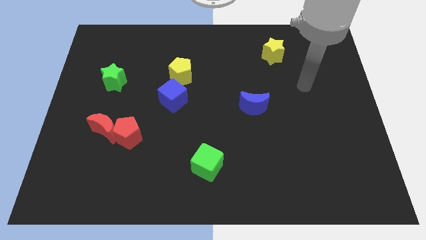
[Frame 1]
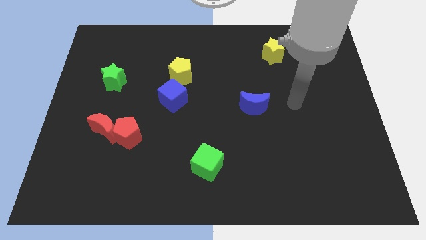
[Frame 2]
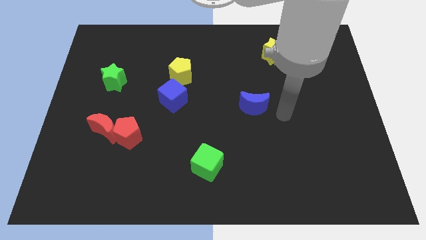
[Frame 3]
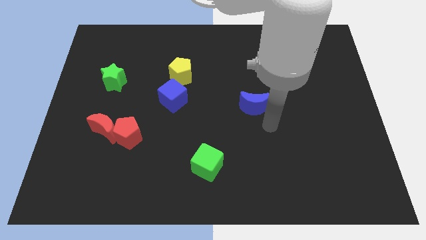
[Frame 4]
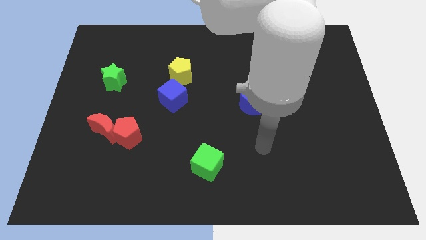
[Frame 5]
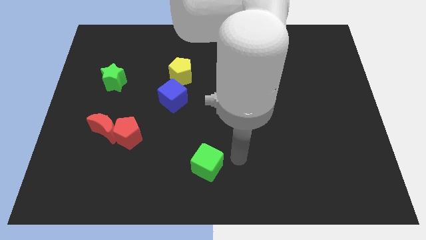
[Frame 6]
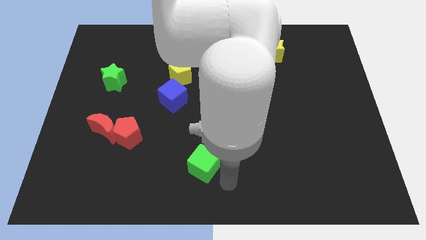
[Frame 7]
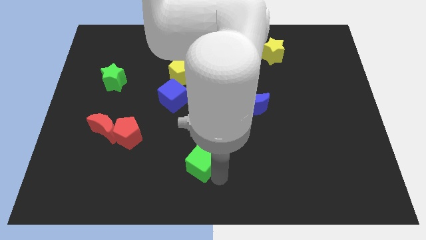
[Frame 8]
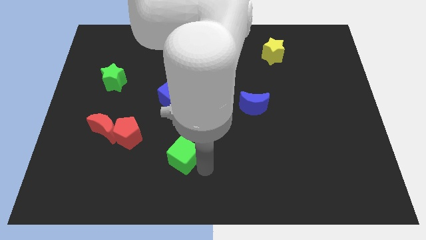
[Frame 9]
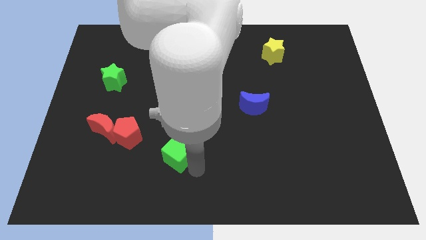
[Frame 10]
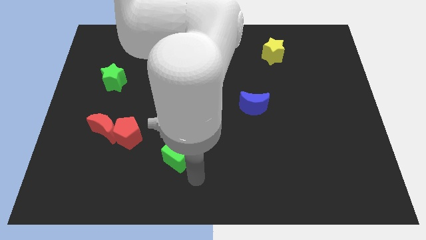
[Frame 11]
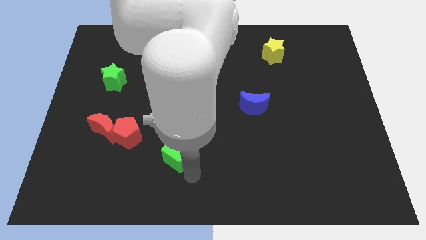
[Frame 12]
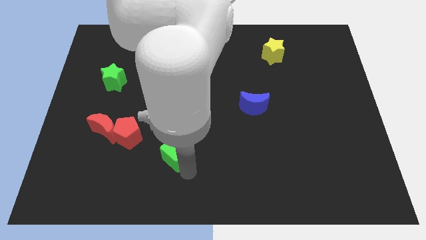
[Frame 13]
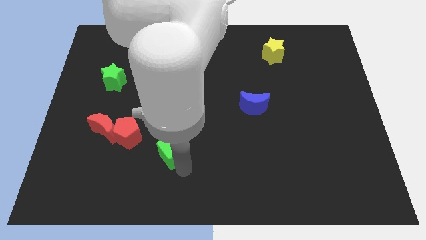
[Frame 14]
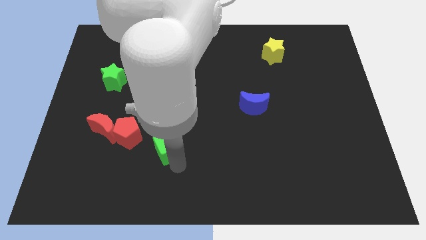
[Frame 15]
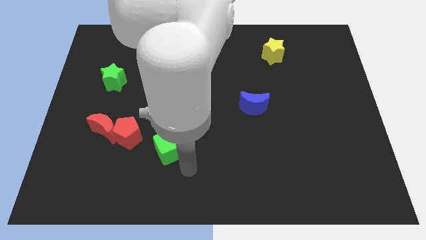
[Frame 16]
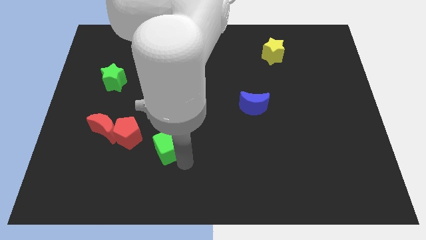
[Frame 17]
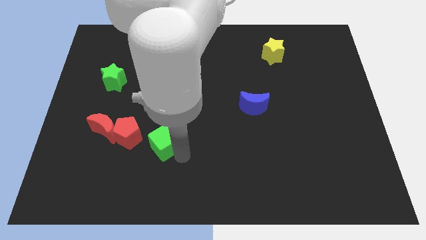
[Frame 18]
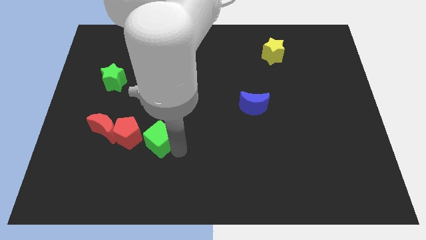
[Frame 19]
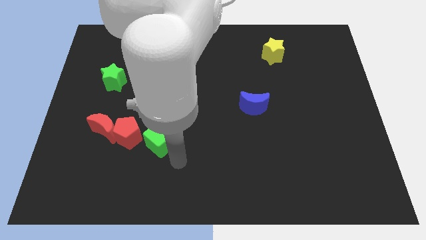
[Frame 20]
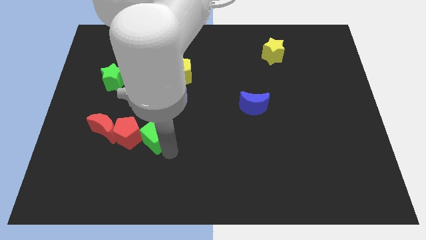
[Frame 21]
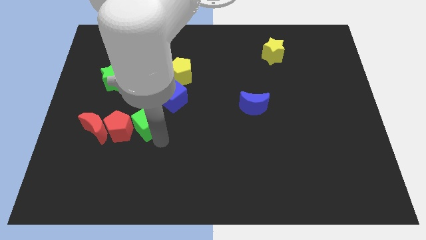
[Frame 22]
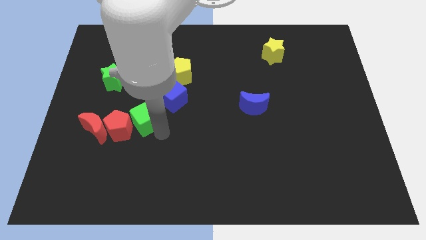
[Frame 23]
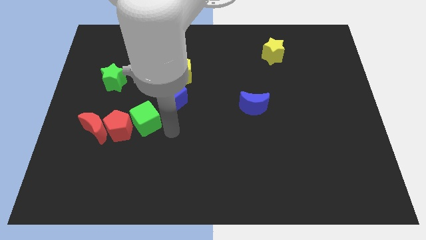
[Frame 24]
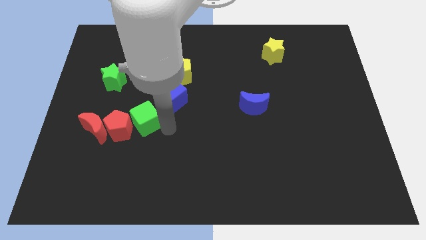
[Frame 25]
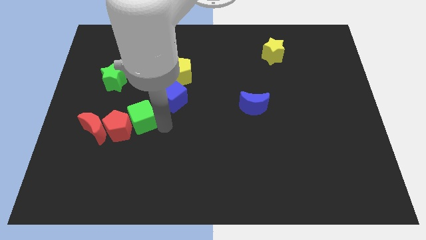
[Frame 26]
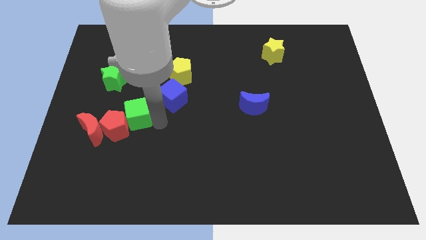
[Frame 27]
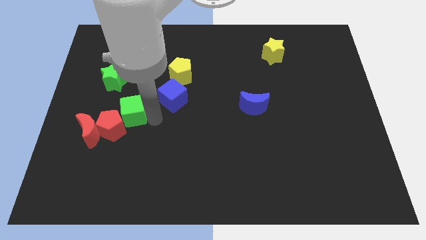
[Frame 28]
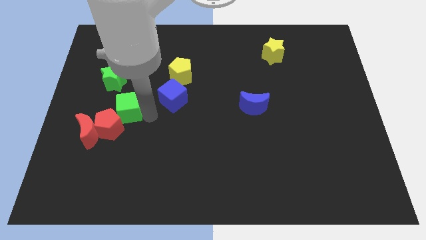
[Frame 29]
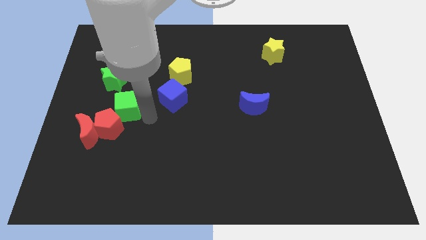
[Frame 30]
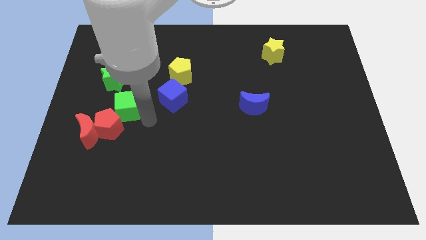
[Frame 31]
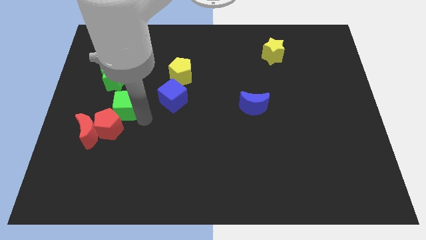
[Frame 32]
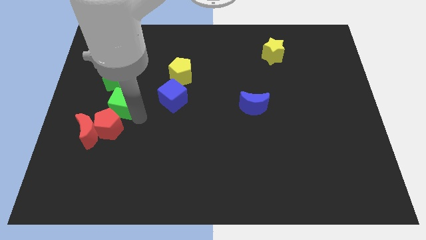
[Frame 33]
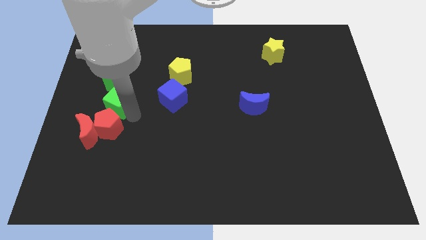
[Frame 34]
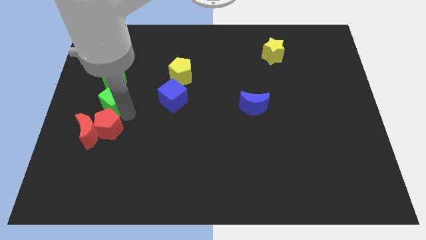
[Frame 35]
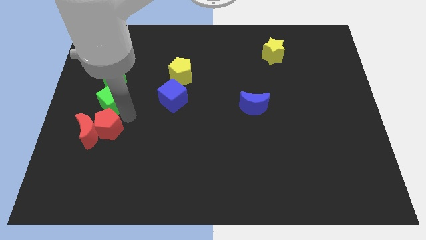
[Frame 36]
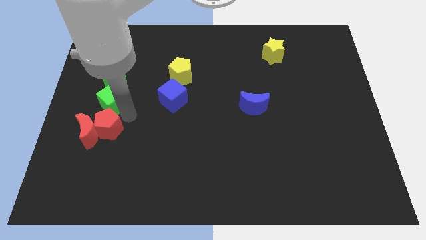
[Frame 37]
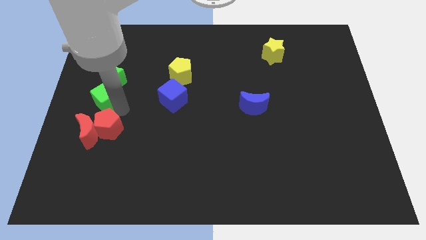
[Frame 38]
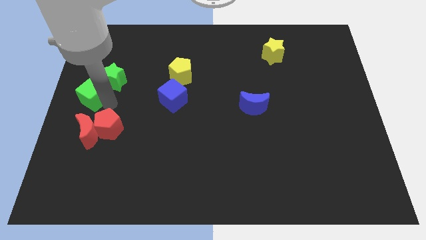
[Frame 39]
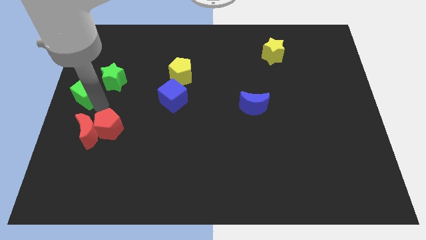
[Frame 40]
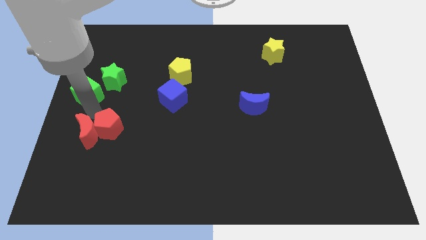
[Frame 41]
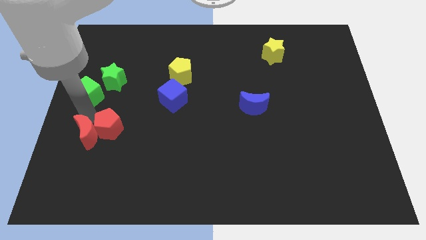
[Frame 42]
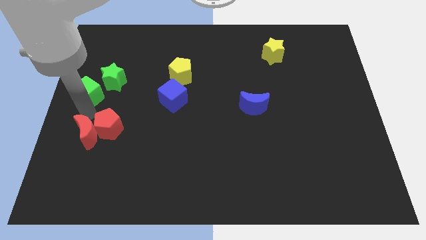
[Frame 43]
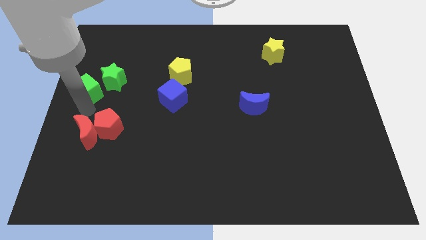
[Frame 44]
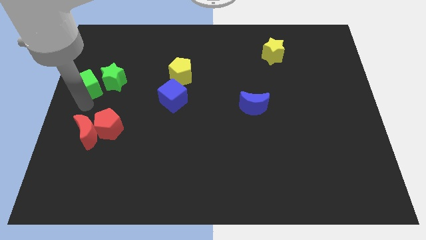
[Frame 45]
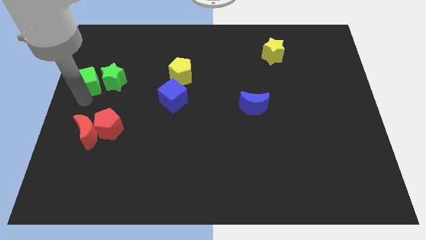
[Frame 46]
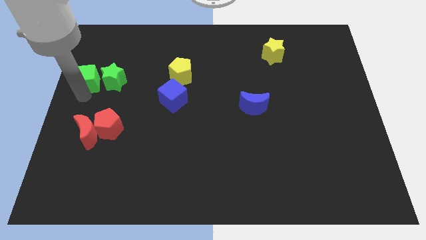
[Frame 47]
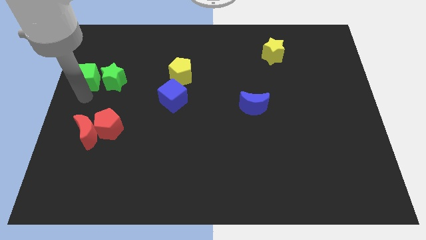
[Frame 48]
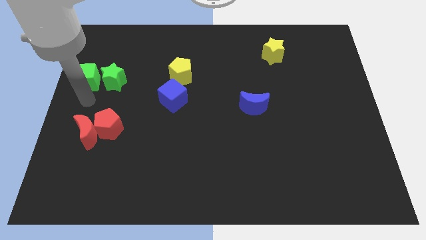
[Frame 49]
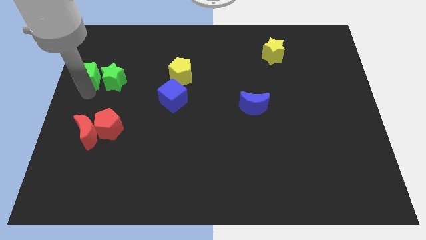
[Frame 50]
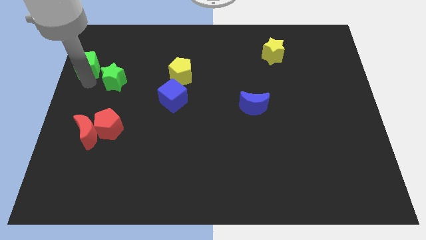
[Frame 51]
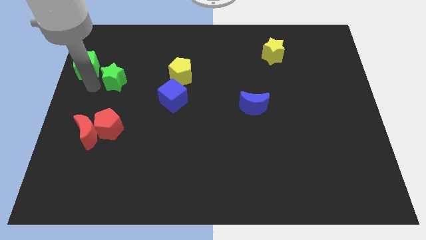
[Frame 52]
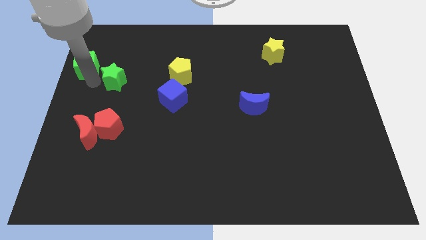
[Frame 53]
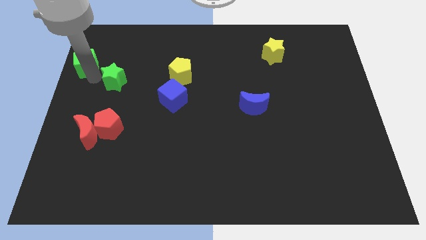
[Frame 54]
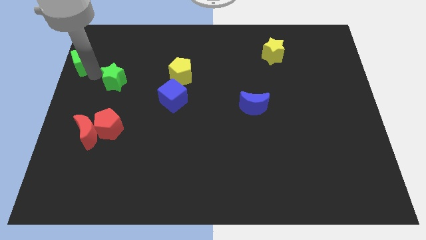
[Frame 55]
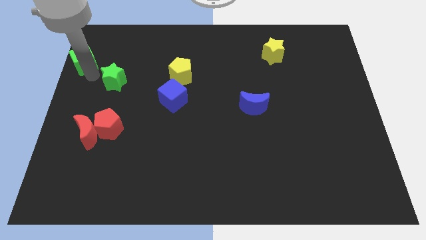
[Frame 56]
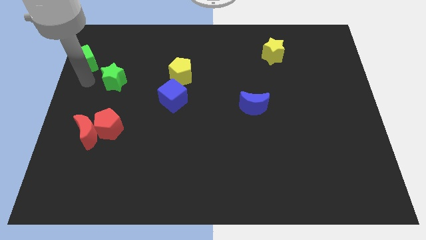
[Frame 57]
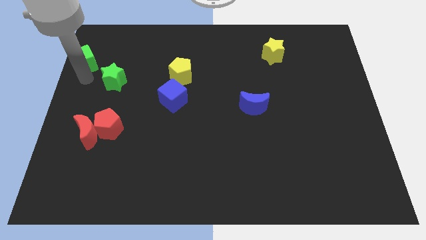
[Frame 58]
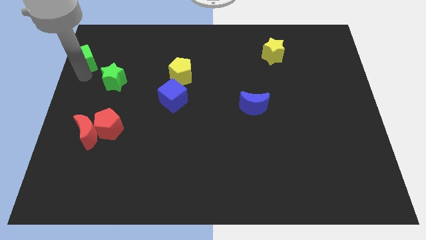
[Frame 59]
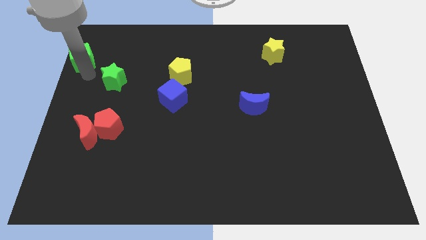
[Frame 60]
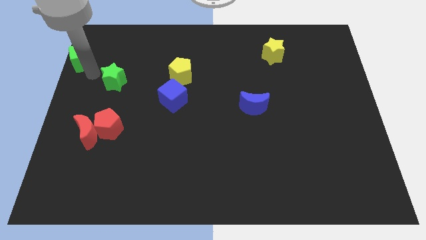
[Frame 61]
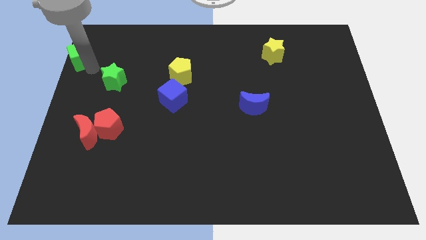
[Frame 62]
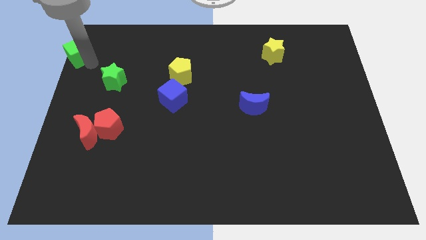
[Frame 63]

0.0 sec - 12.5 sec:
move the green cube to the top left corner
